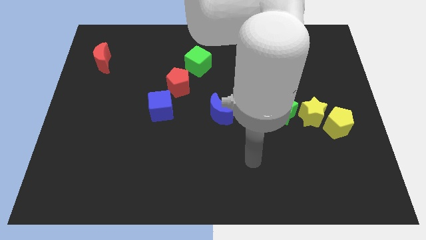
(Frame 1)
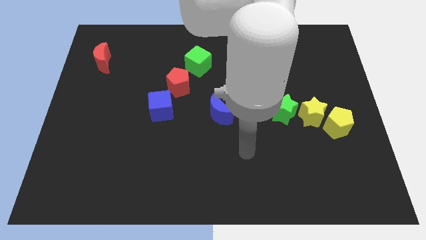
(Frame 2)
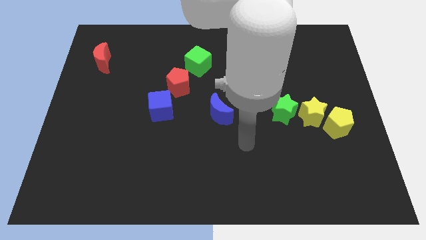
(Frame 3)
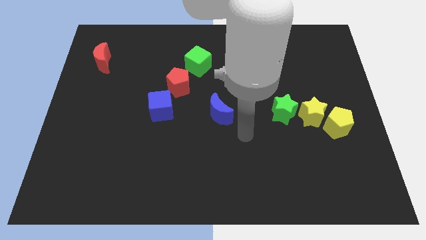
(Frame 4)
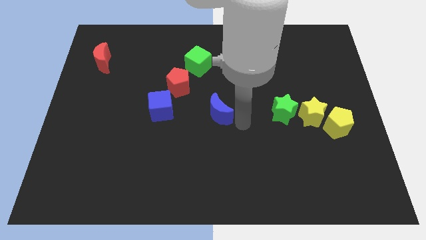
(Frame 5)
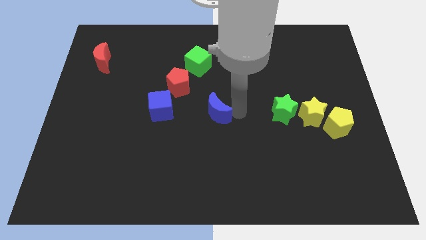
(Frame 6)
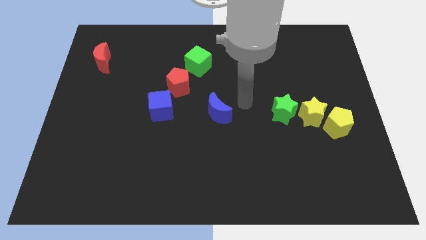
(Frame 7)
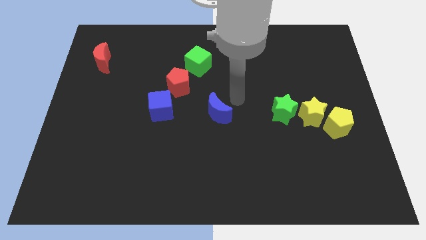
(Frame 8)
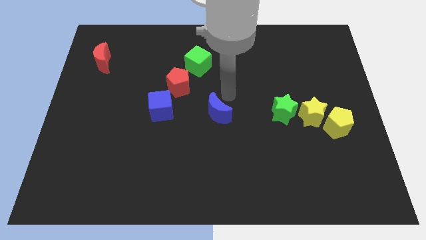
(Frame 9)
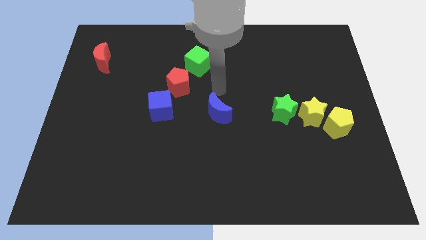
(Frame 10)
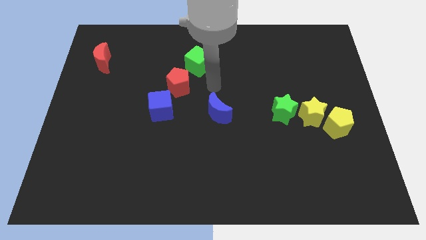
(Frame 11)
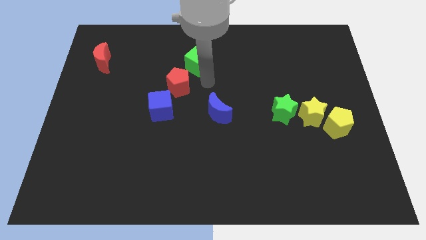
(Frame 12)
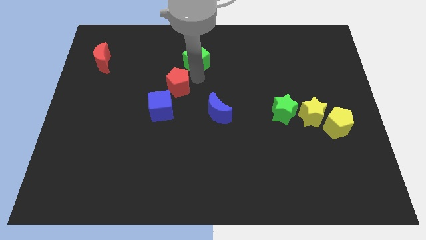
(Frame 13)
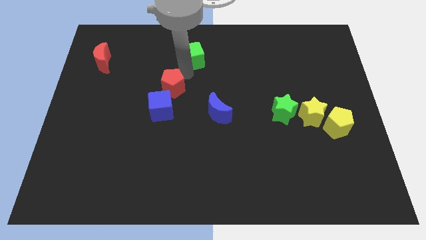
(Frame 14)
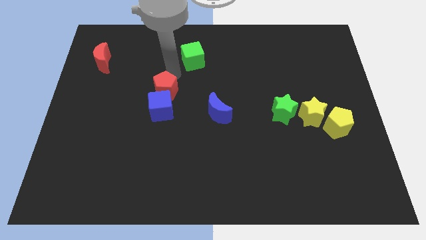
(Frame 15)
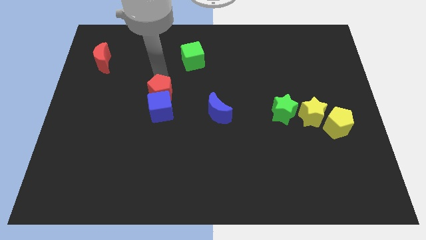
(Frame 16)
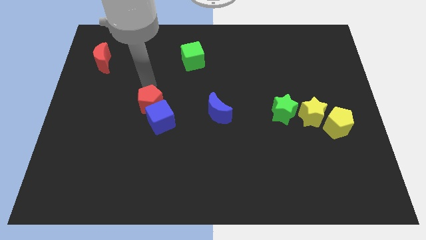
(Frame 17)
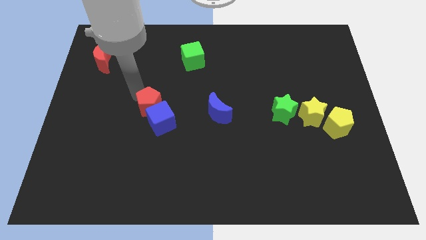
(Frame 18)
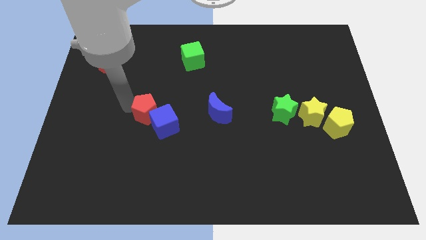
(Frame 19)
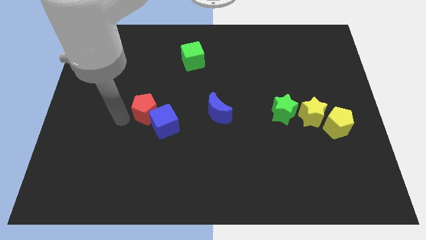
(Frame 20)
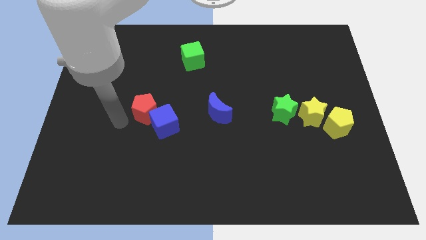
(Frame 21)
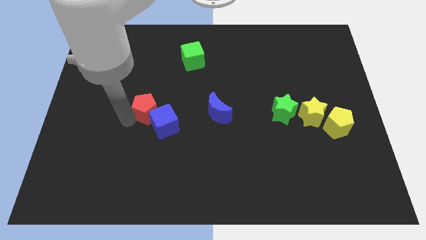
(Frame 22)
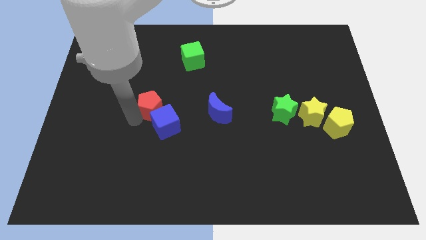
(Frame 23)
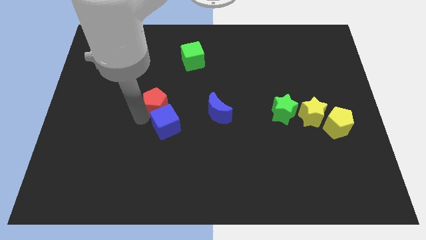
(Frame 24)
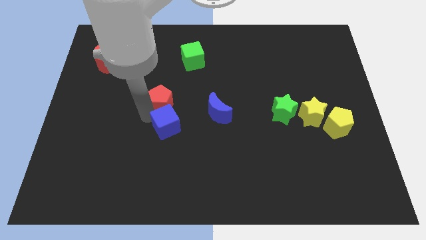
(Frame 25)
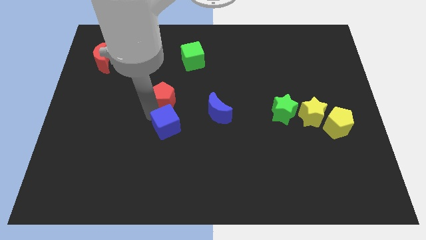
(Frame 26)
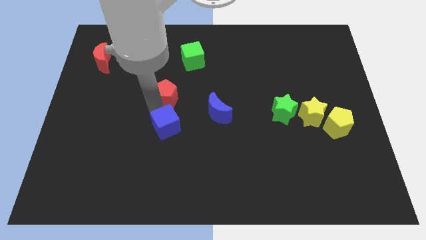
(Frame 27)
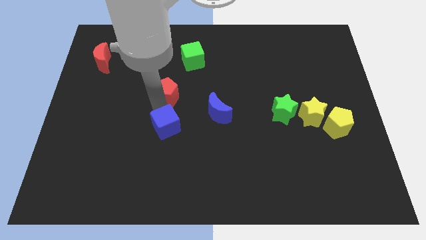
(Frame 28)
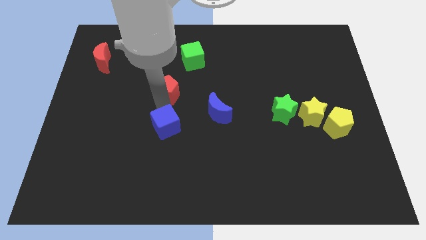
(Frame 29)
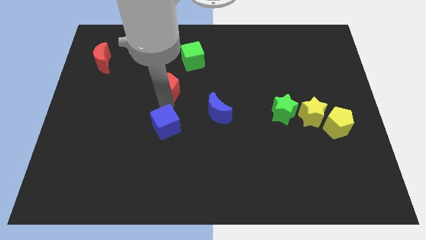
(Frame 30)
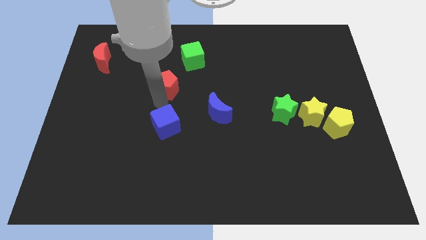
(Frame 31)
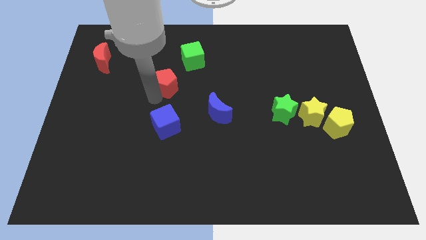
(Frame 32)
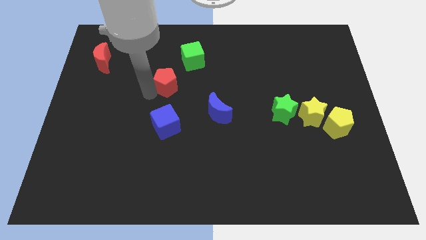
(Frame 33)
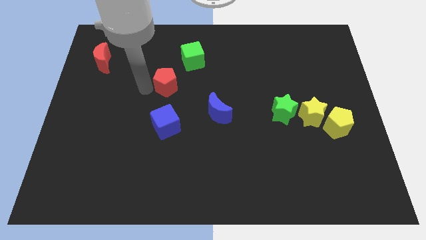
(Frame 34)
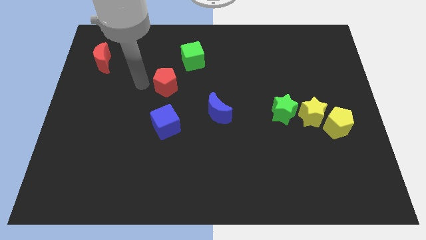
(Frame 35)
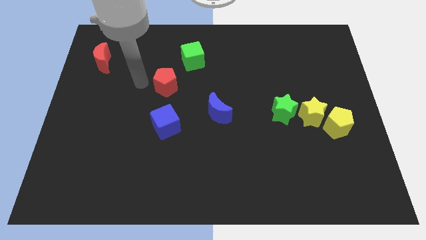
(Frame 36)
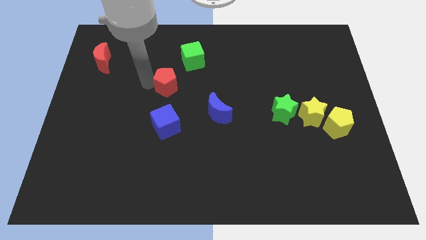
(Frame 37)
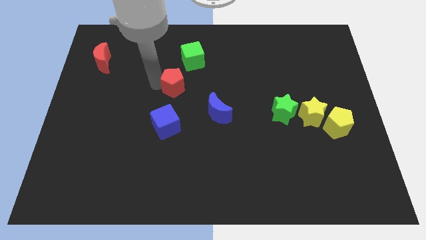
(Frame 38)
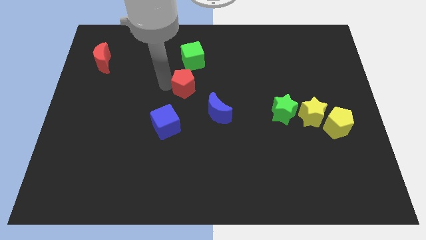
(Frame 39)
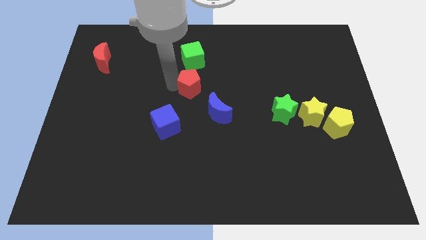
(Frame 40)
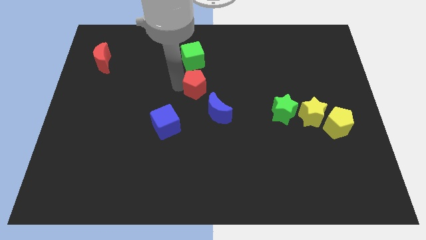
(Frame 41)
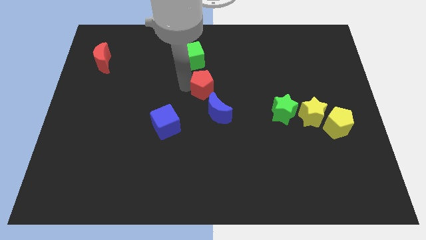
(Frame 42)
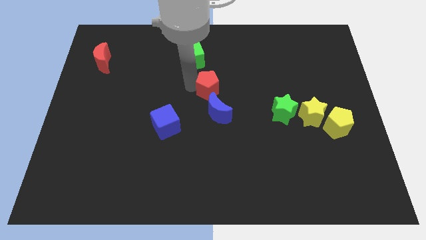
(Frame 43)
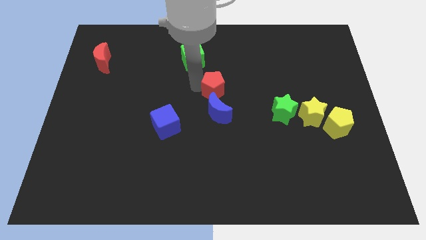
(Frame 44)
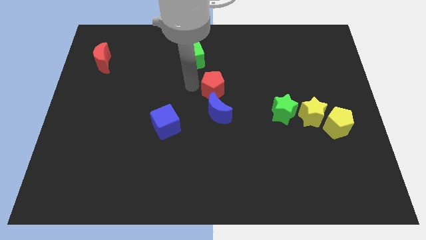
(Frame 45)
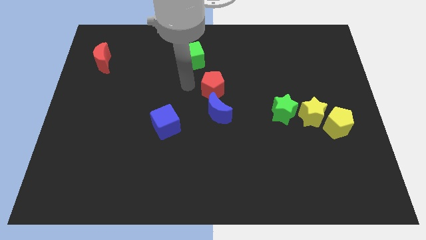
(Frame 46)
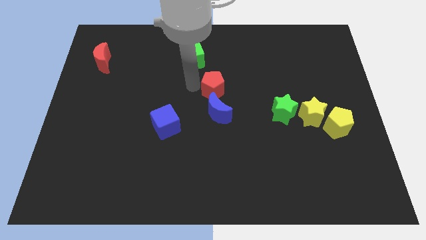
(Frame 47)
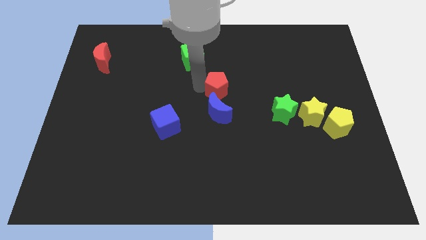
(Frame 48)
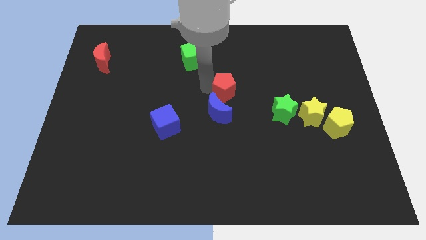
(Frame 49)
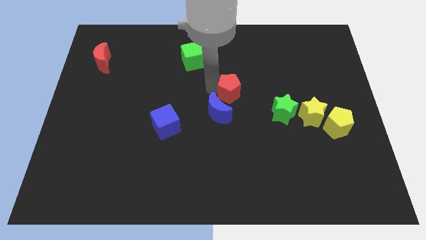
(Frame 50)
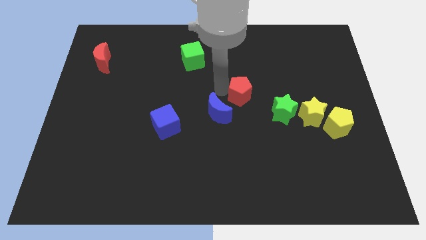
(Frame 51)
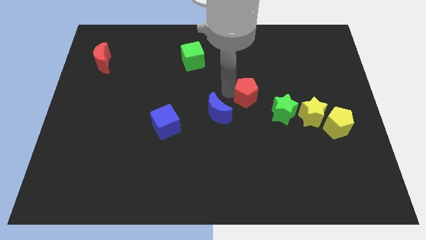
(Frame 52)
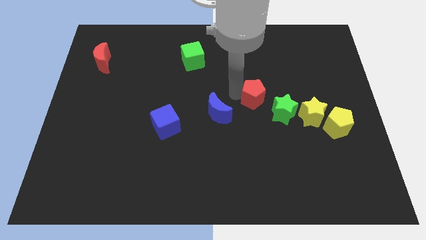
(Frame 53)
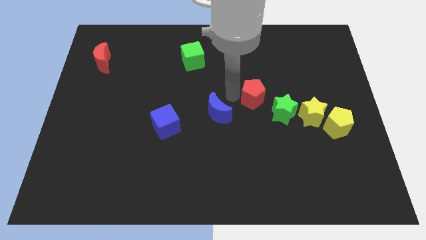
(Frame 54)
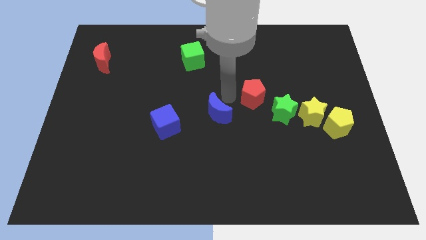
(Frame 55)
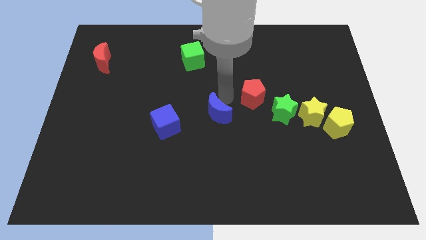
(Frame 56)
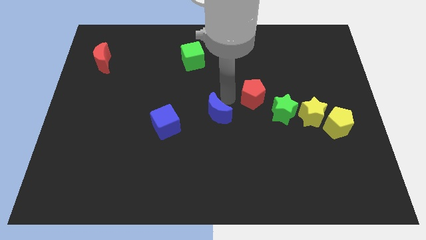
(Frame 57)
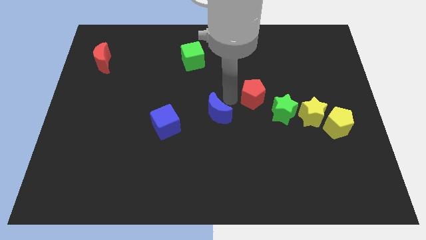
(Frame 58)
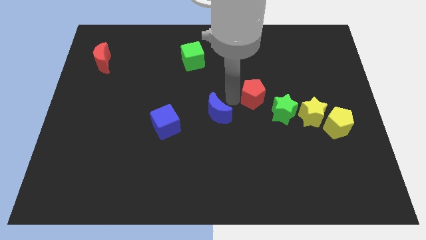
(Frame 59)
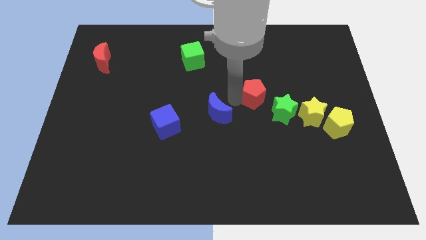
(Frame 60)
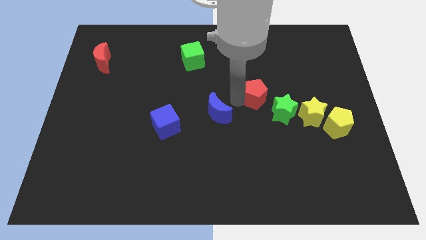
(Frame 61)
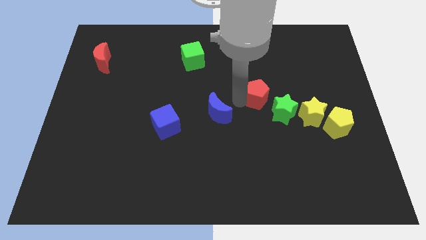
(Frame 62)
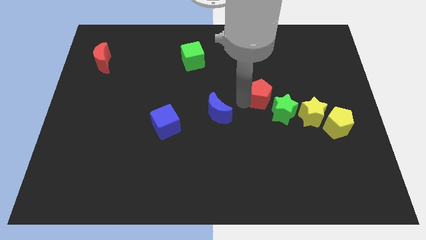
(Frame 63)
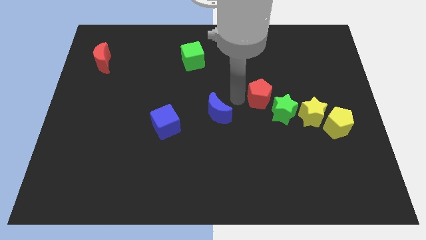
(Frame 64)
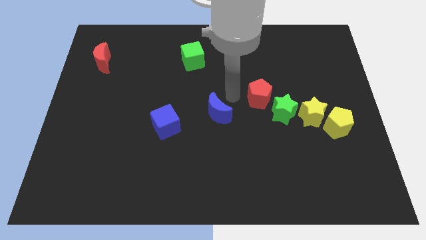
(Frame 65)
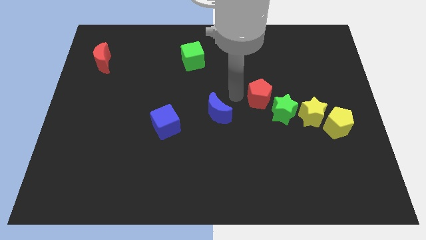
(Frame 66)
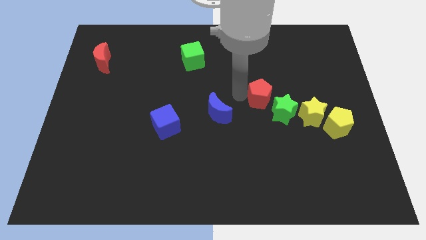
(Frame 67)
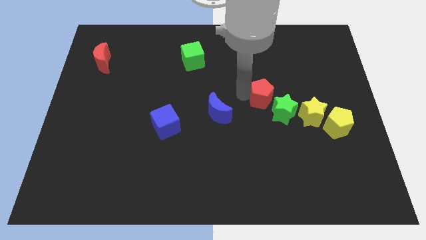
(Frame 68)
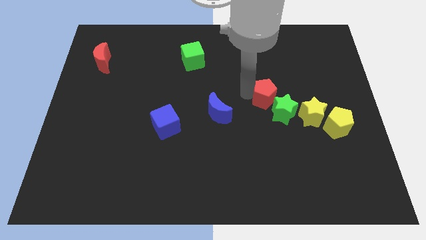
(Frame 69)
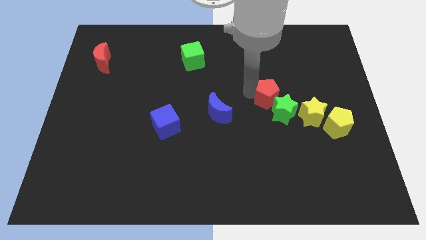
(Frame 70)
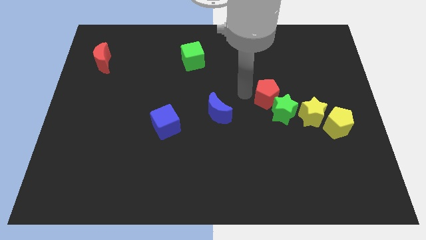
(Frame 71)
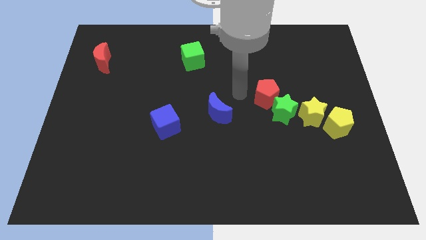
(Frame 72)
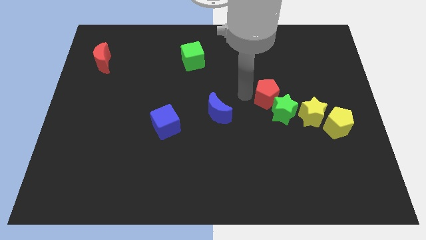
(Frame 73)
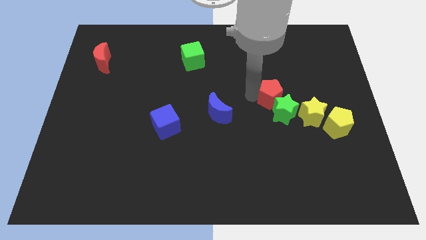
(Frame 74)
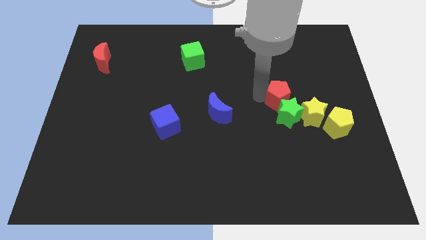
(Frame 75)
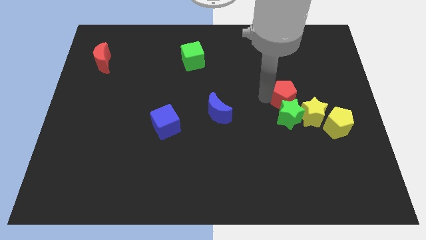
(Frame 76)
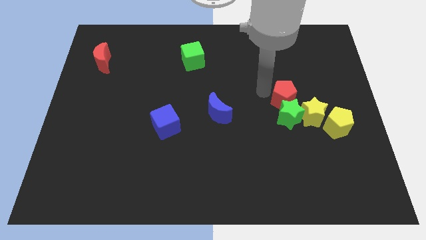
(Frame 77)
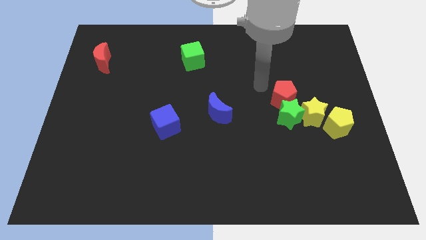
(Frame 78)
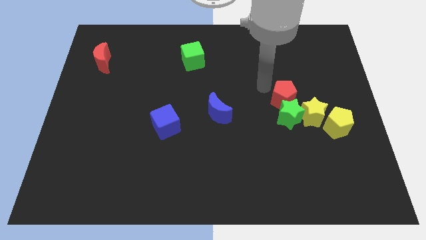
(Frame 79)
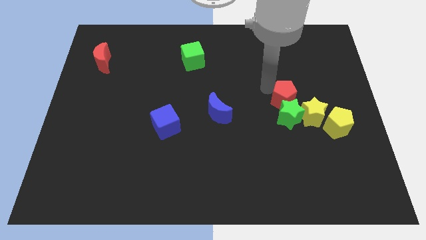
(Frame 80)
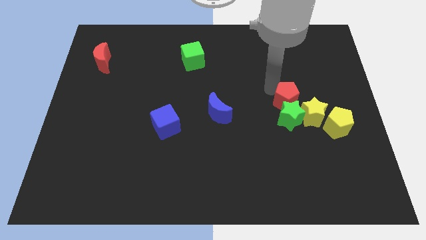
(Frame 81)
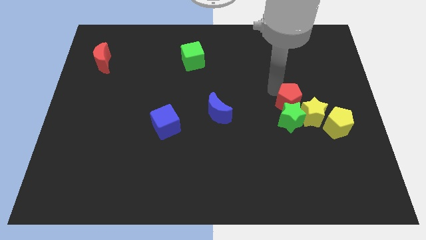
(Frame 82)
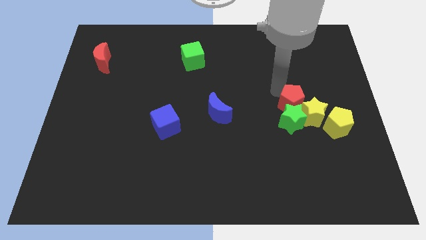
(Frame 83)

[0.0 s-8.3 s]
push the red pentagon towards the yellow star
